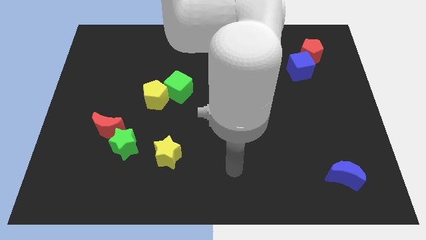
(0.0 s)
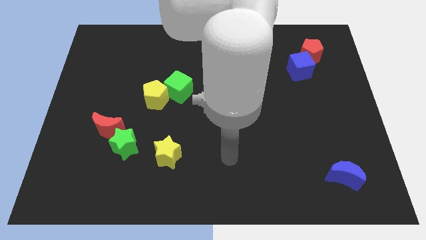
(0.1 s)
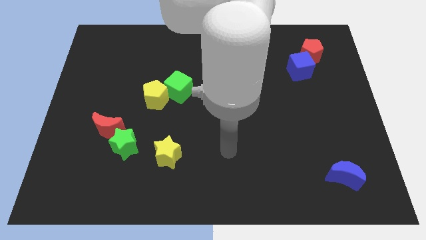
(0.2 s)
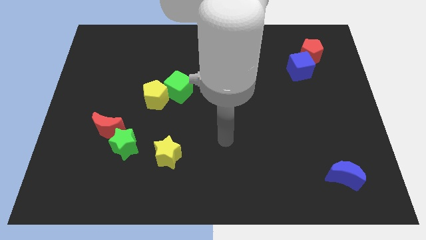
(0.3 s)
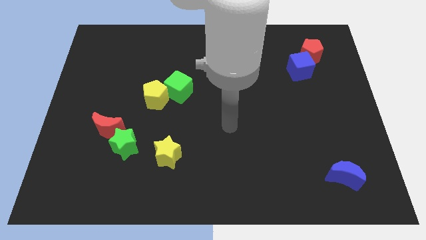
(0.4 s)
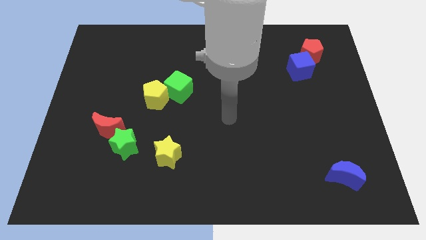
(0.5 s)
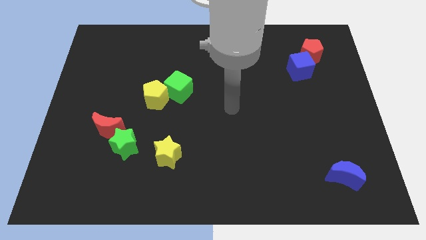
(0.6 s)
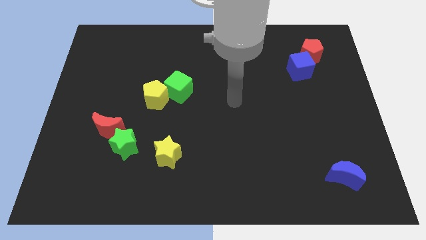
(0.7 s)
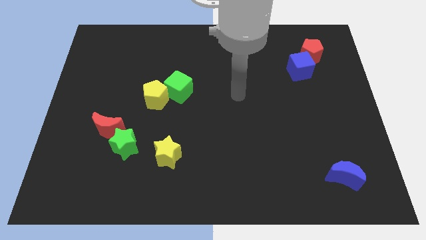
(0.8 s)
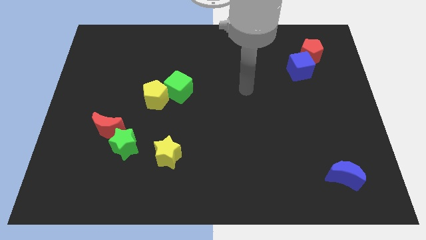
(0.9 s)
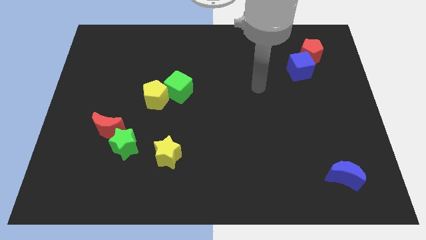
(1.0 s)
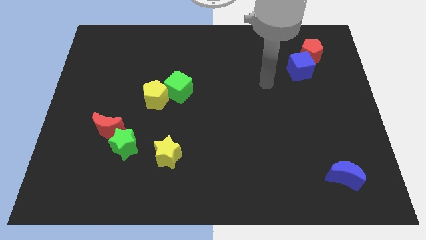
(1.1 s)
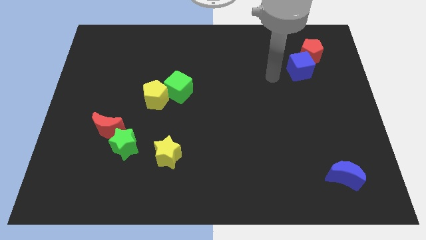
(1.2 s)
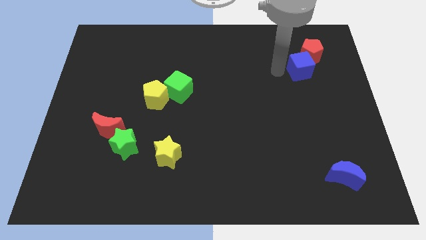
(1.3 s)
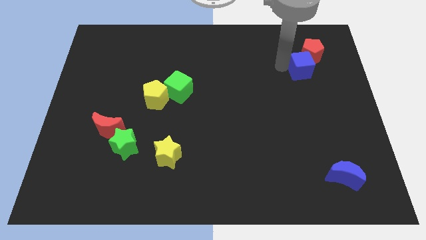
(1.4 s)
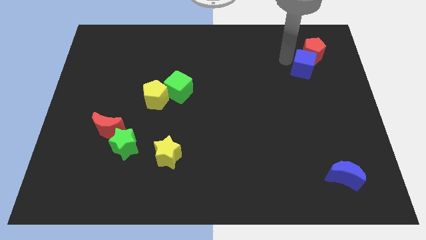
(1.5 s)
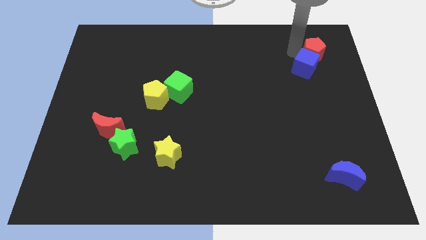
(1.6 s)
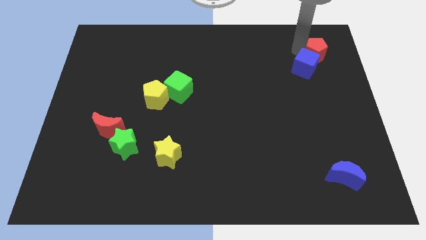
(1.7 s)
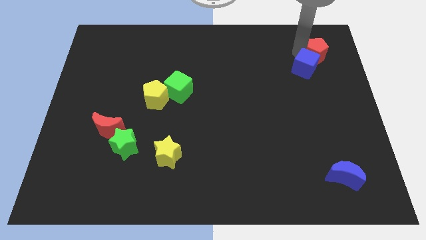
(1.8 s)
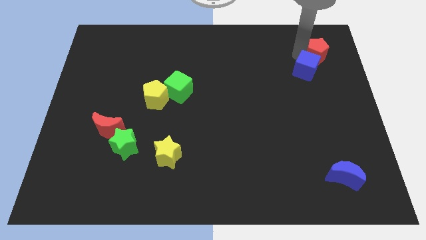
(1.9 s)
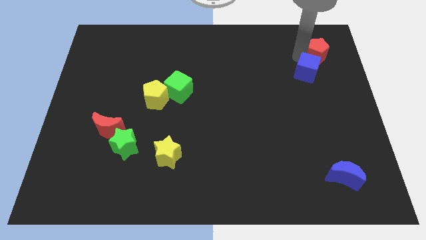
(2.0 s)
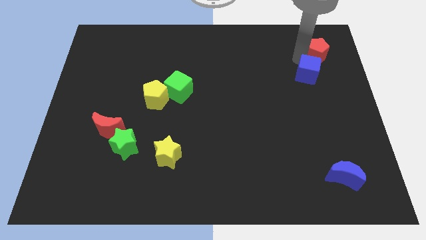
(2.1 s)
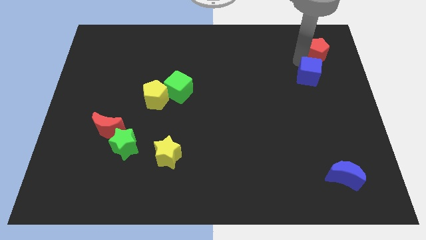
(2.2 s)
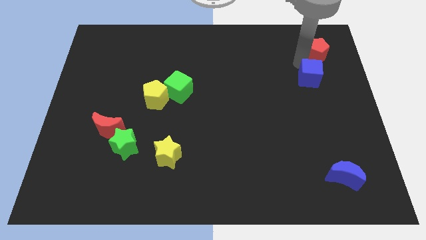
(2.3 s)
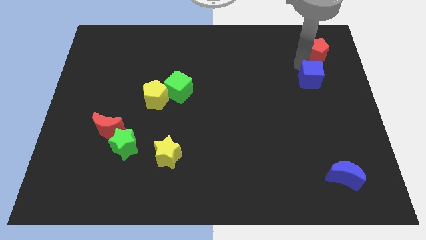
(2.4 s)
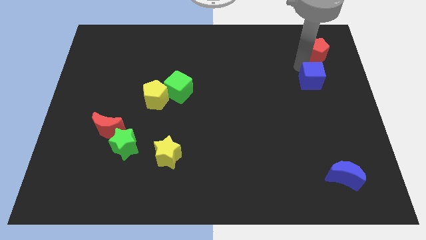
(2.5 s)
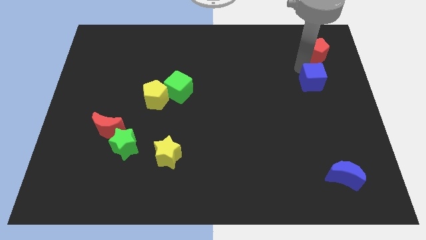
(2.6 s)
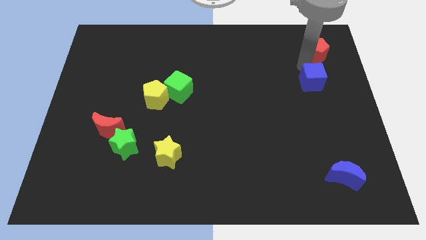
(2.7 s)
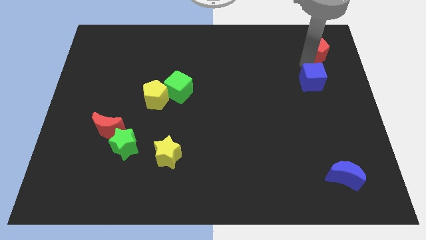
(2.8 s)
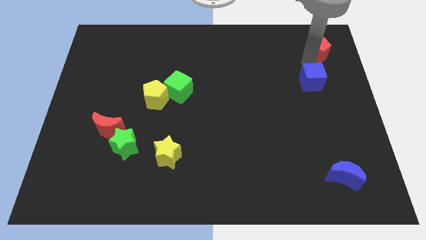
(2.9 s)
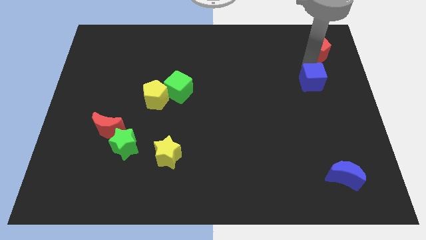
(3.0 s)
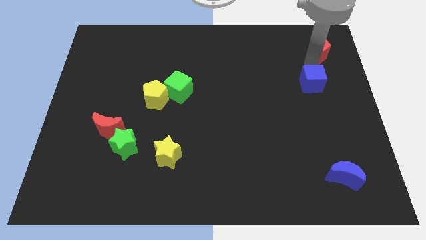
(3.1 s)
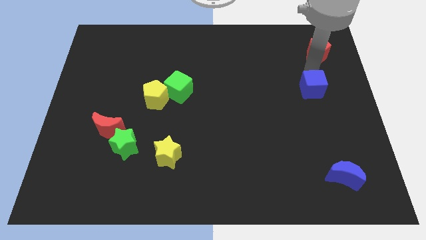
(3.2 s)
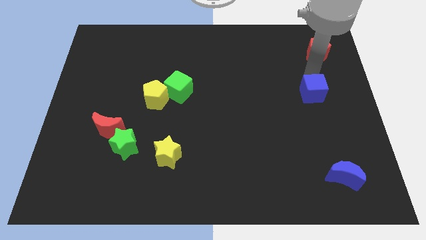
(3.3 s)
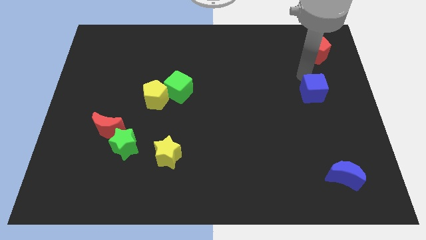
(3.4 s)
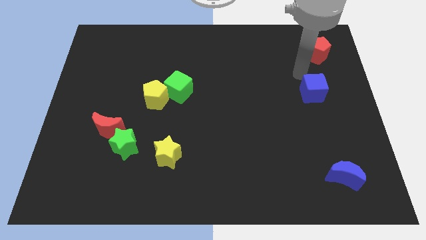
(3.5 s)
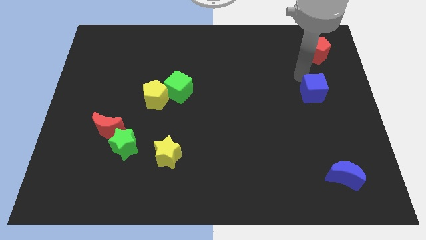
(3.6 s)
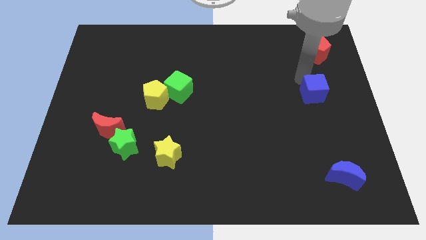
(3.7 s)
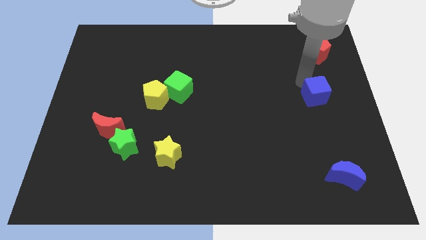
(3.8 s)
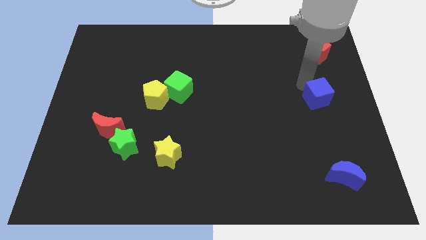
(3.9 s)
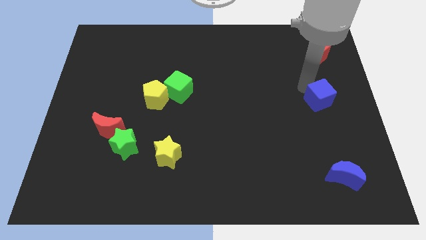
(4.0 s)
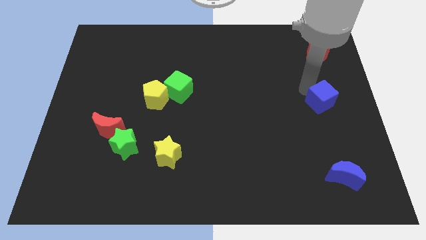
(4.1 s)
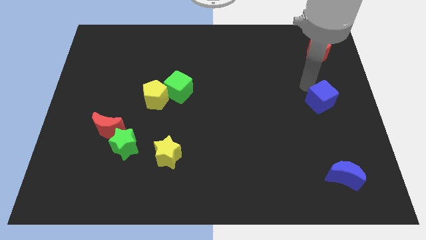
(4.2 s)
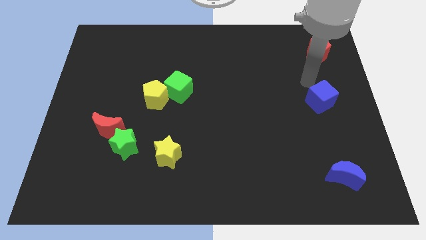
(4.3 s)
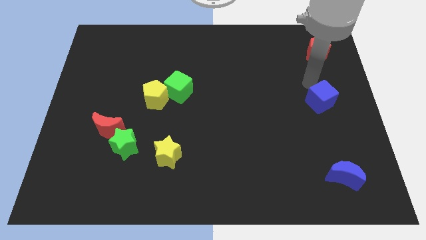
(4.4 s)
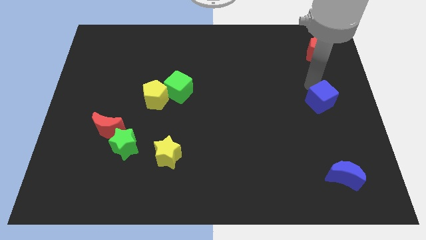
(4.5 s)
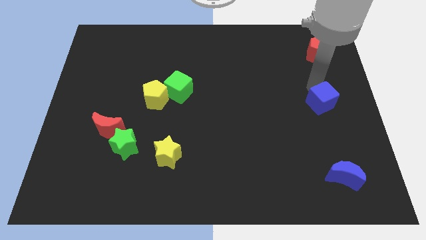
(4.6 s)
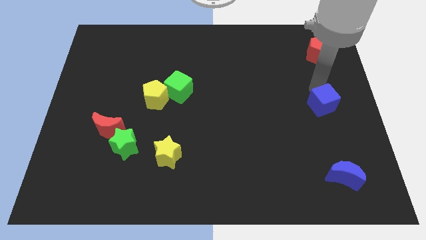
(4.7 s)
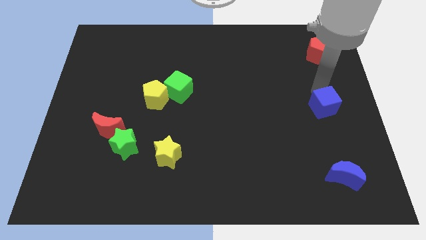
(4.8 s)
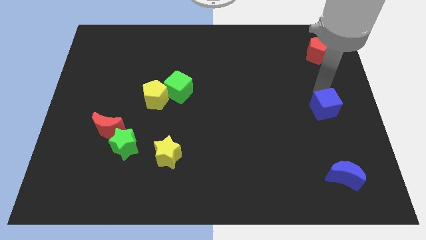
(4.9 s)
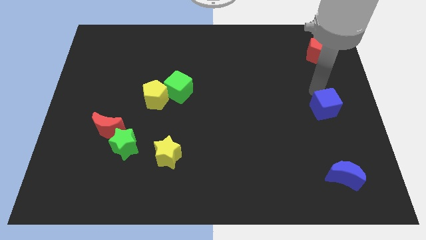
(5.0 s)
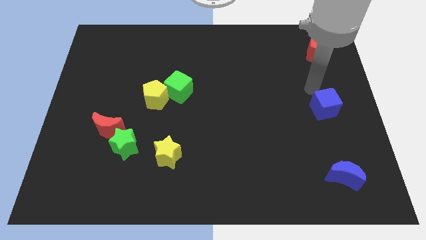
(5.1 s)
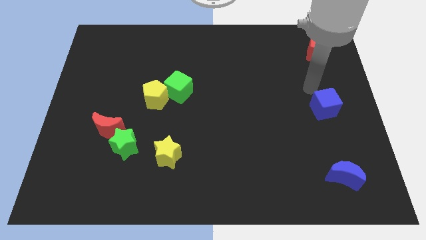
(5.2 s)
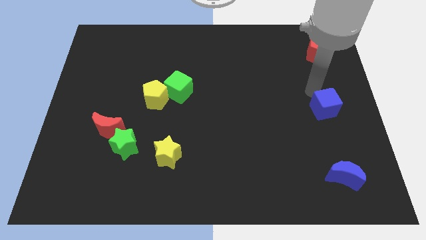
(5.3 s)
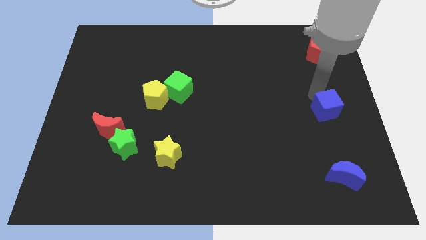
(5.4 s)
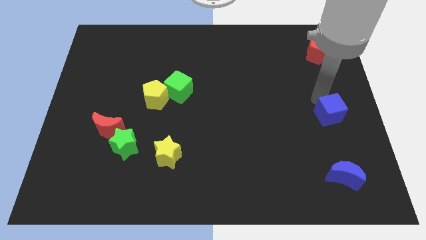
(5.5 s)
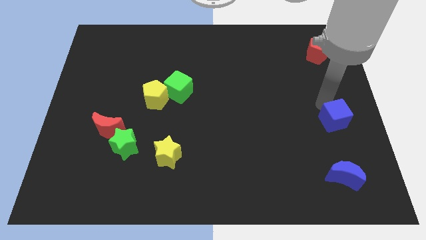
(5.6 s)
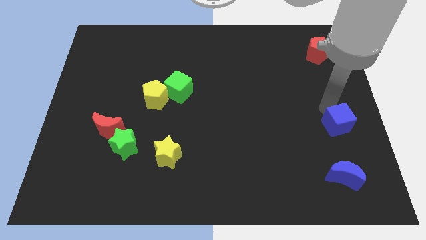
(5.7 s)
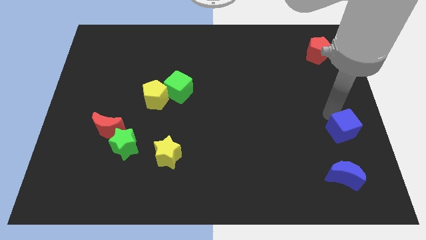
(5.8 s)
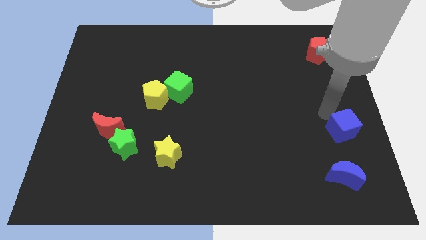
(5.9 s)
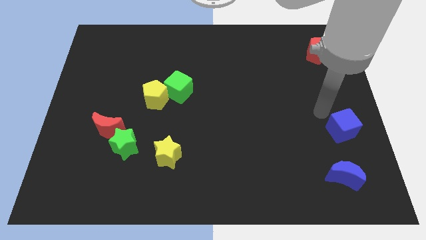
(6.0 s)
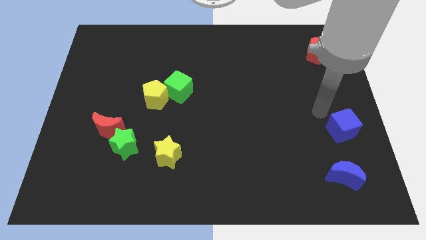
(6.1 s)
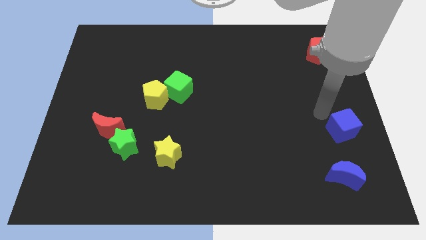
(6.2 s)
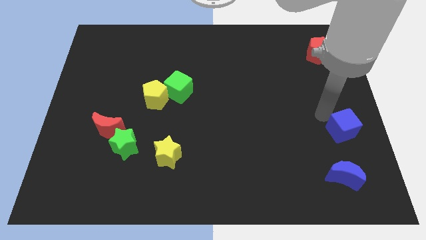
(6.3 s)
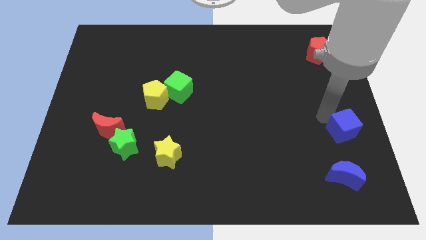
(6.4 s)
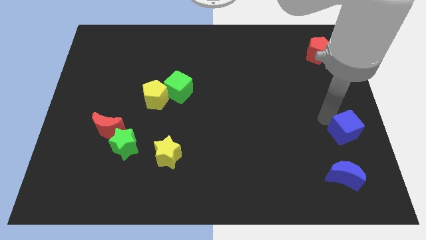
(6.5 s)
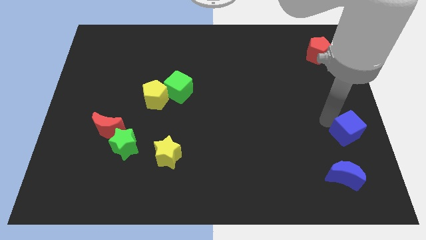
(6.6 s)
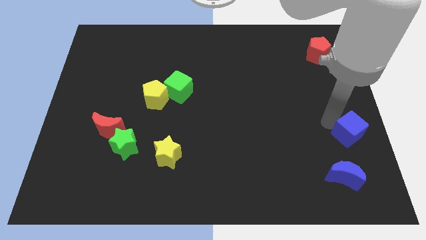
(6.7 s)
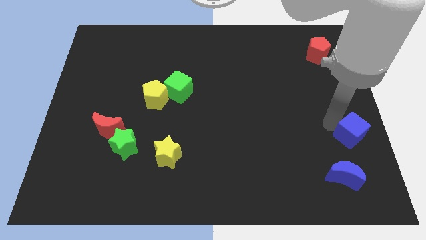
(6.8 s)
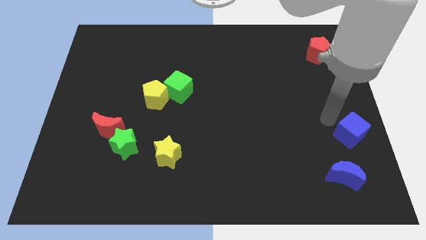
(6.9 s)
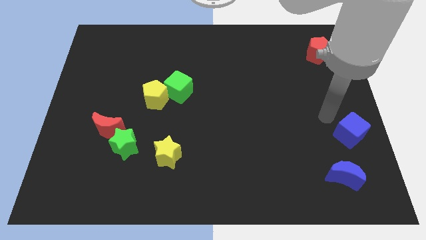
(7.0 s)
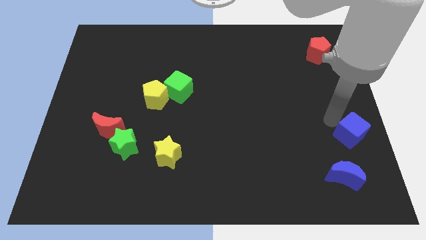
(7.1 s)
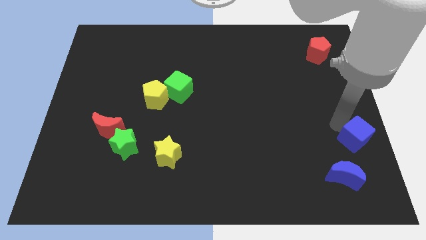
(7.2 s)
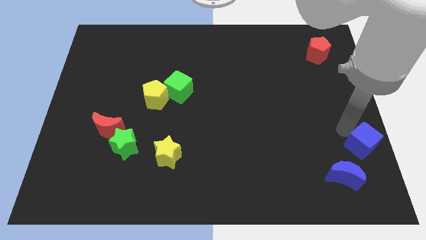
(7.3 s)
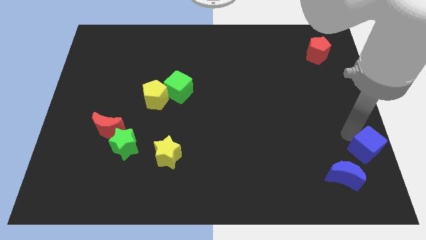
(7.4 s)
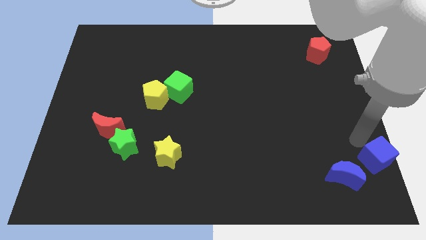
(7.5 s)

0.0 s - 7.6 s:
slide the blue cube to the bottom right corner
